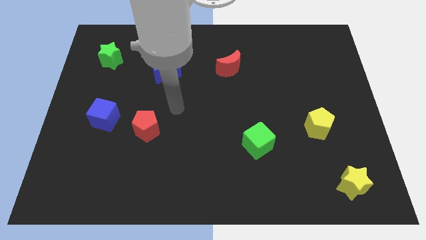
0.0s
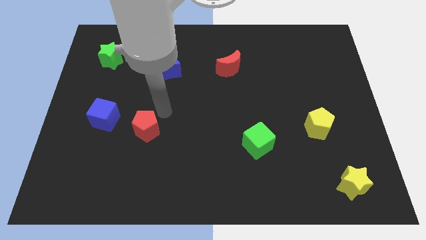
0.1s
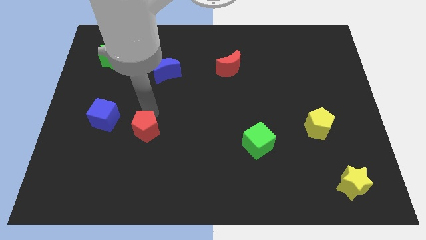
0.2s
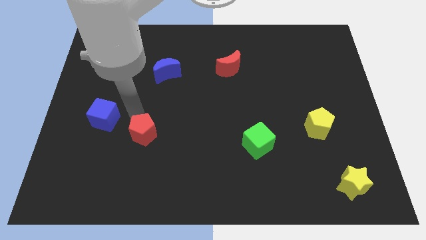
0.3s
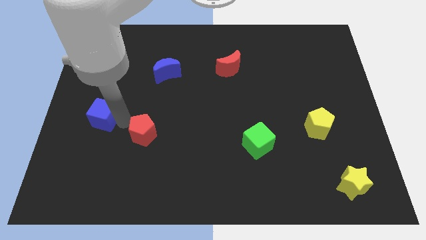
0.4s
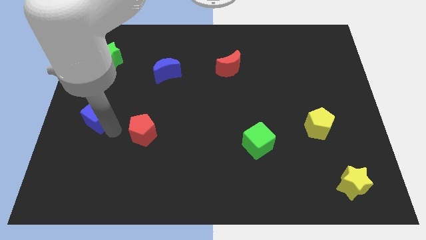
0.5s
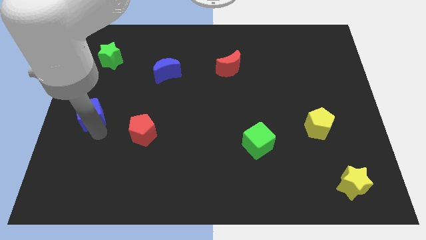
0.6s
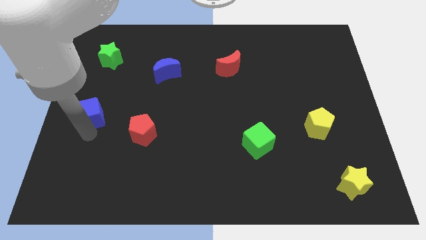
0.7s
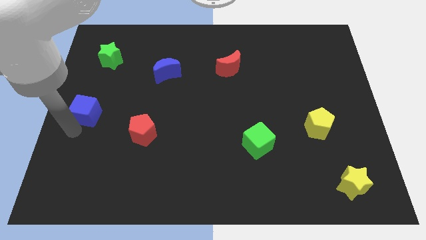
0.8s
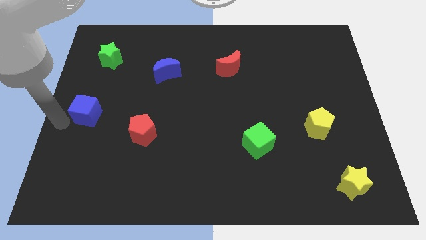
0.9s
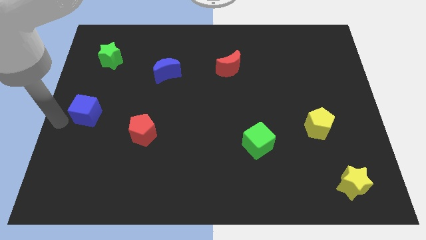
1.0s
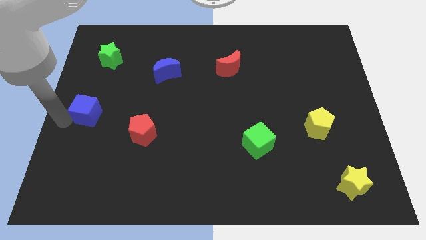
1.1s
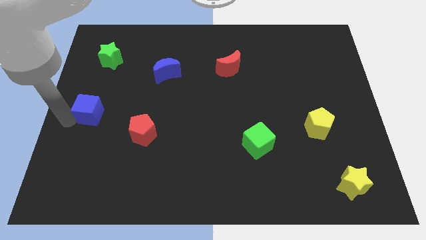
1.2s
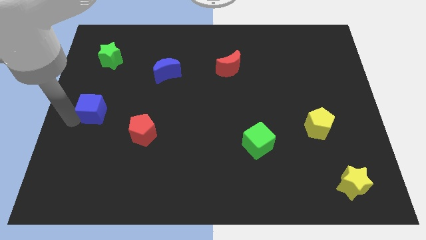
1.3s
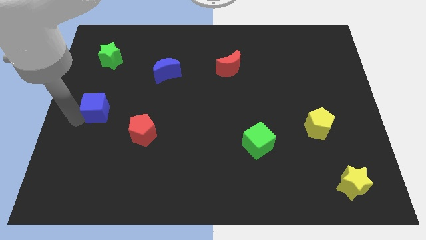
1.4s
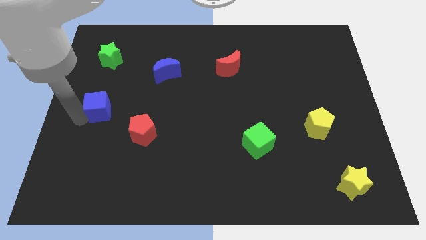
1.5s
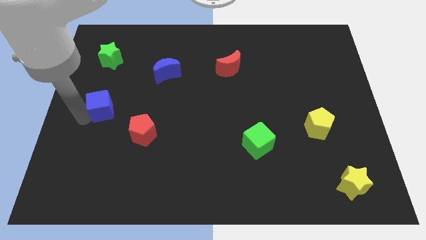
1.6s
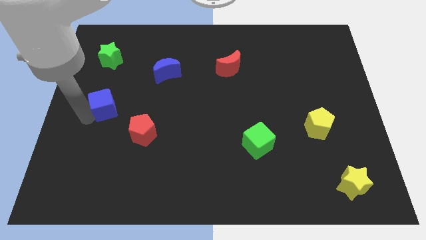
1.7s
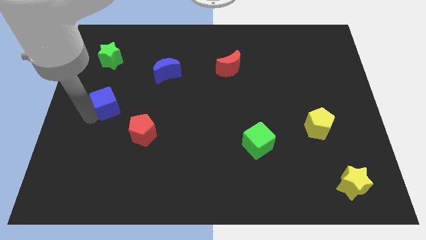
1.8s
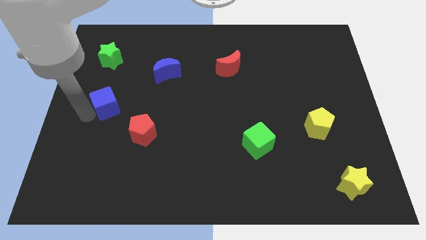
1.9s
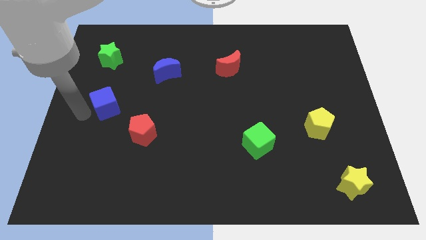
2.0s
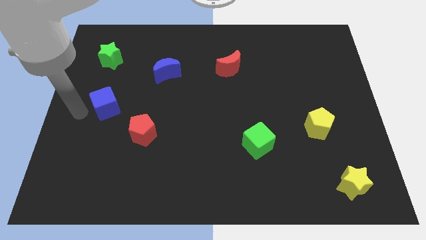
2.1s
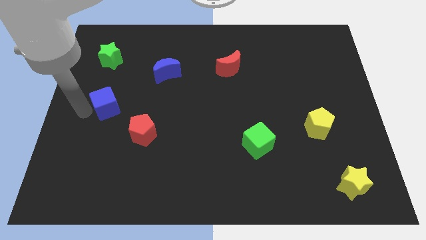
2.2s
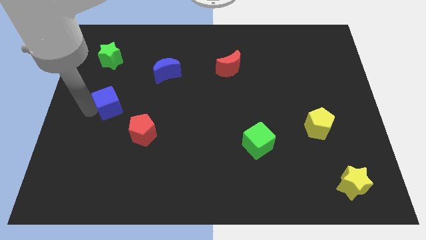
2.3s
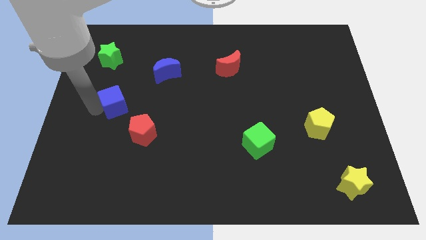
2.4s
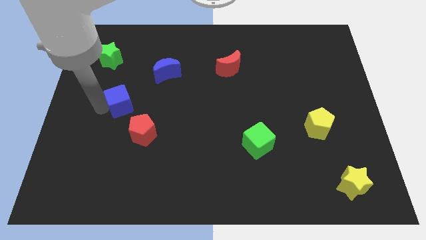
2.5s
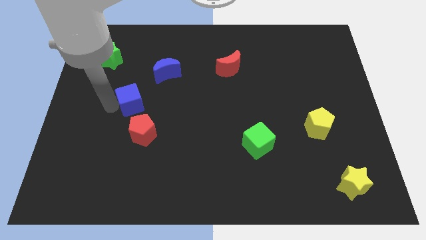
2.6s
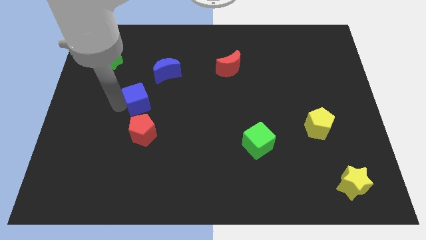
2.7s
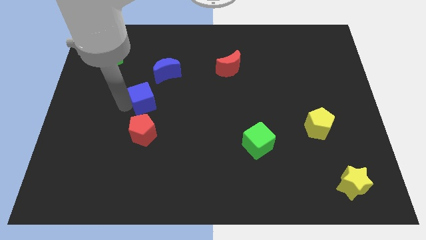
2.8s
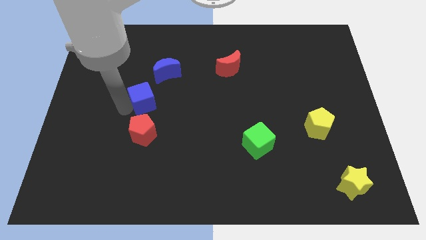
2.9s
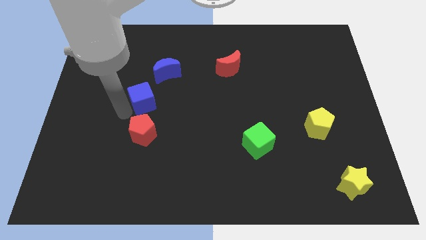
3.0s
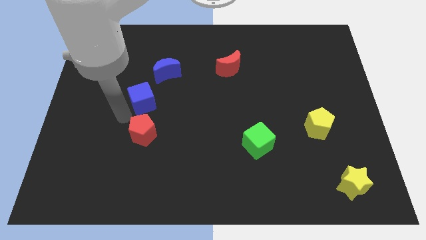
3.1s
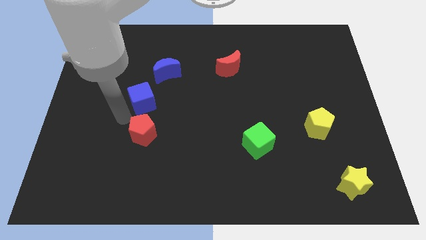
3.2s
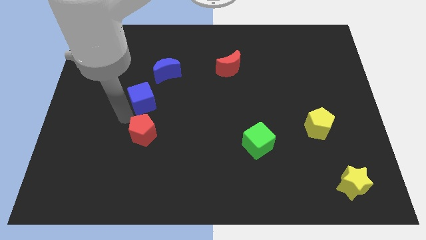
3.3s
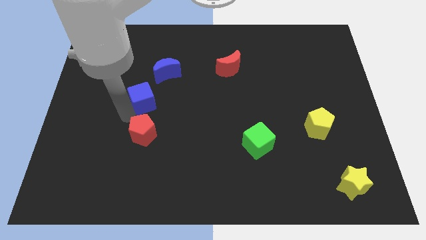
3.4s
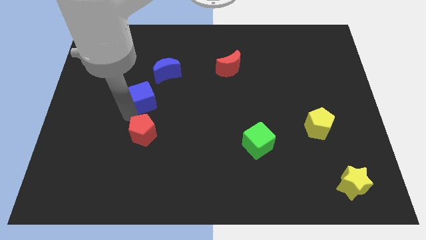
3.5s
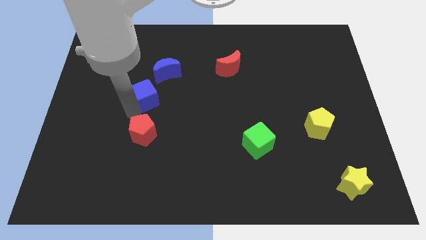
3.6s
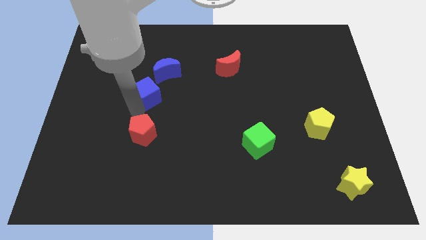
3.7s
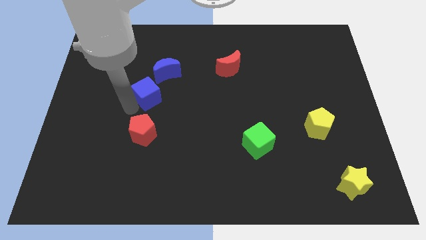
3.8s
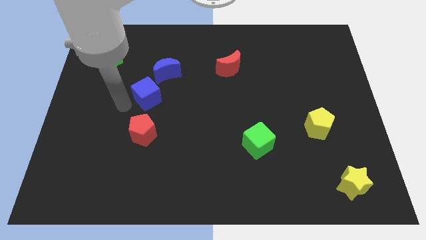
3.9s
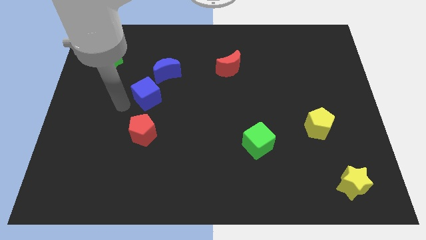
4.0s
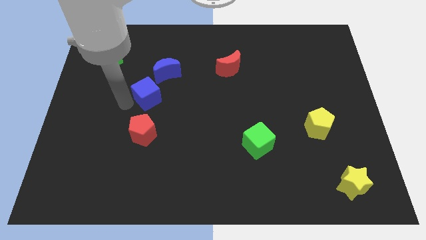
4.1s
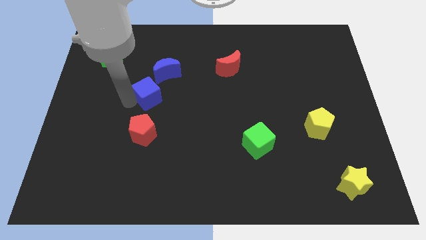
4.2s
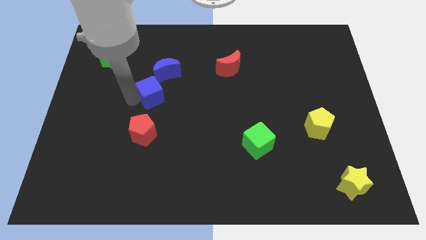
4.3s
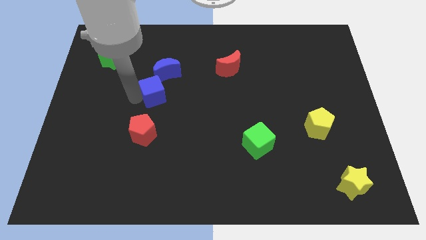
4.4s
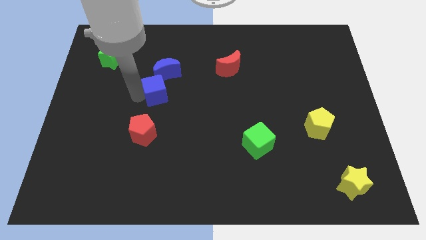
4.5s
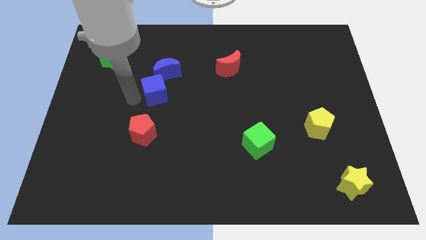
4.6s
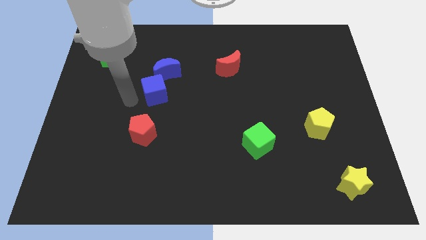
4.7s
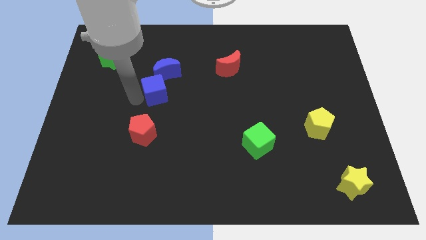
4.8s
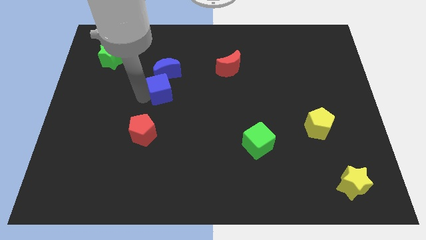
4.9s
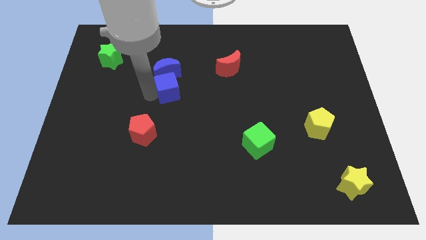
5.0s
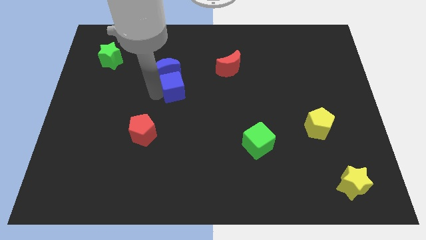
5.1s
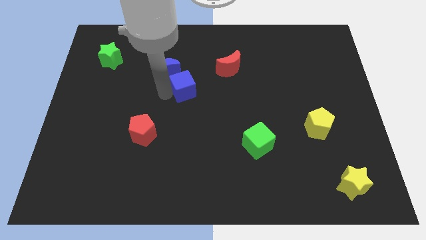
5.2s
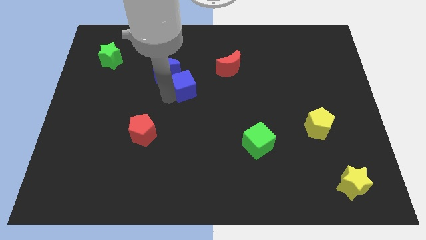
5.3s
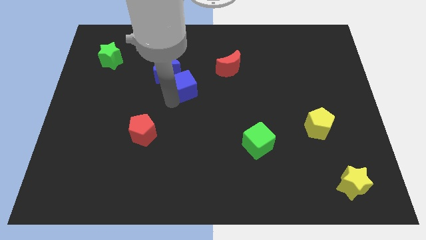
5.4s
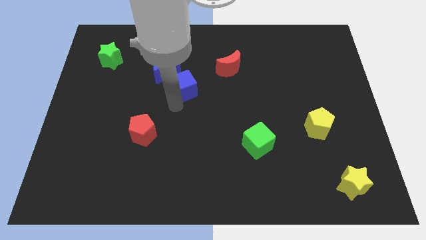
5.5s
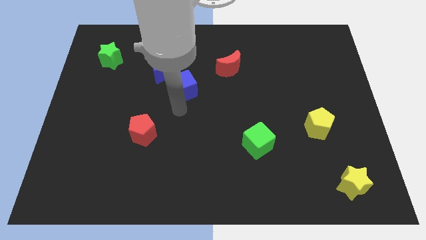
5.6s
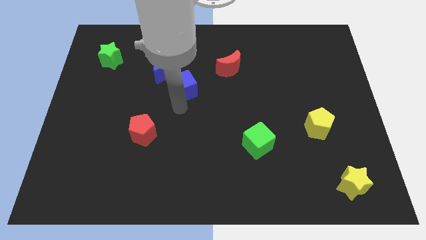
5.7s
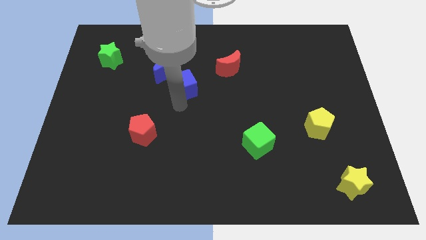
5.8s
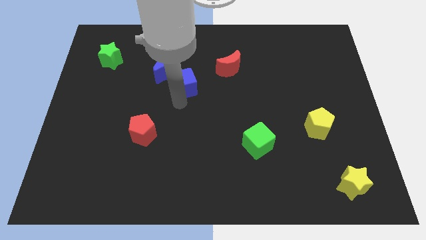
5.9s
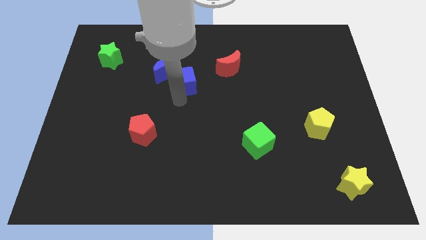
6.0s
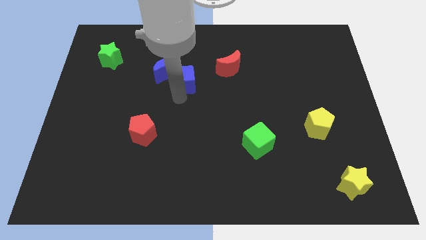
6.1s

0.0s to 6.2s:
put the blue cube to the left side of the red moon

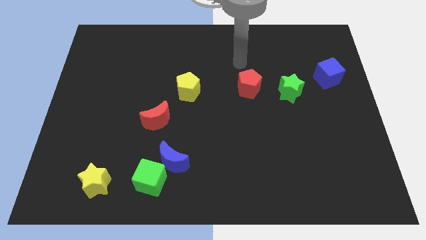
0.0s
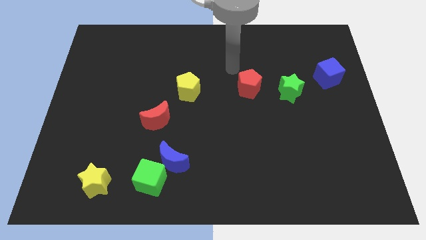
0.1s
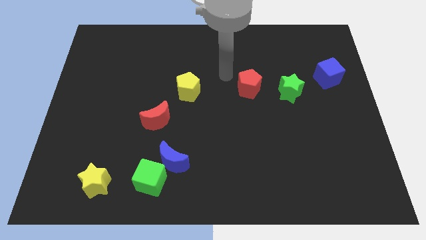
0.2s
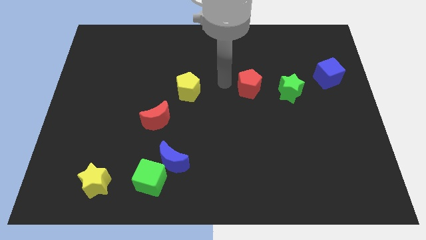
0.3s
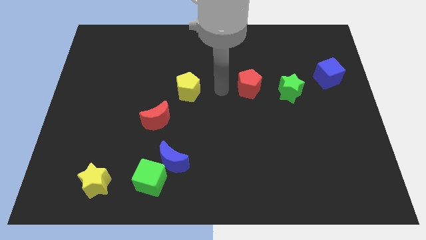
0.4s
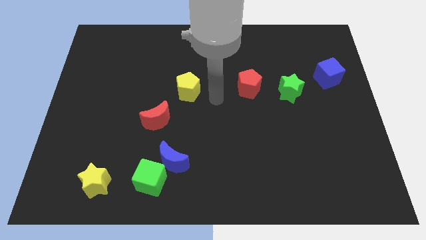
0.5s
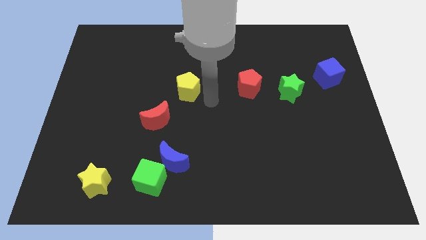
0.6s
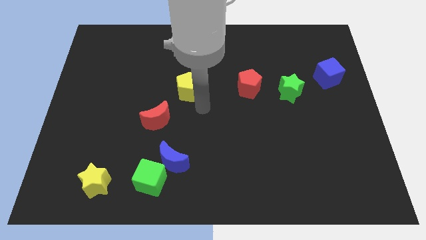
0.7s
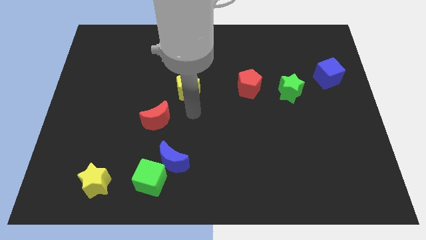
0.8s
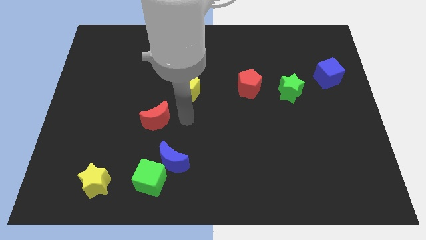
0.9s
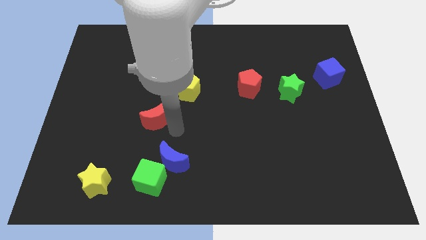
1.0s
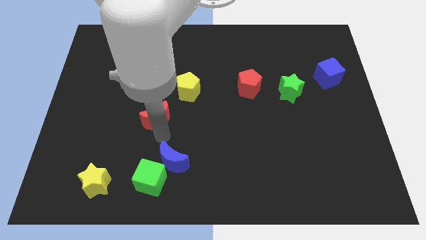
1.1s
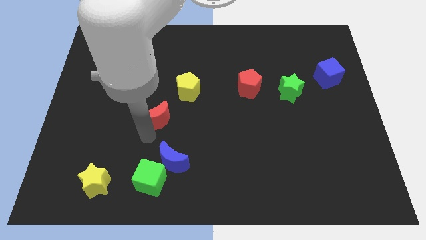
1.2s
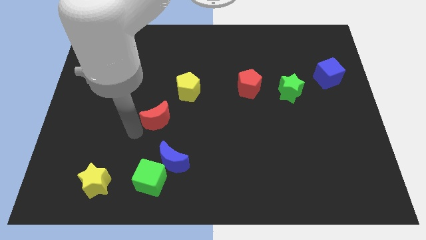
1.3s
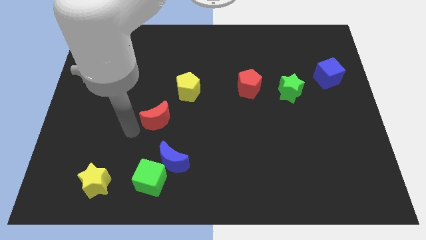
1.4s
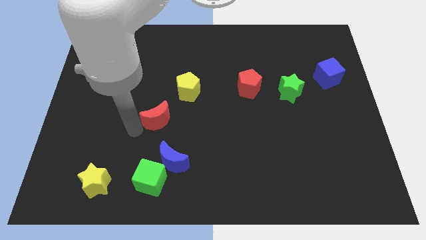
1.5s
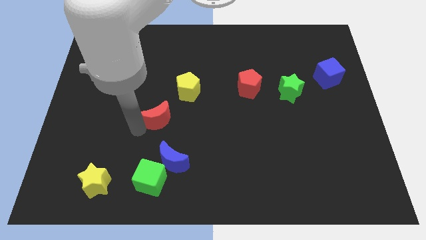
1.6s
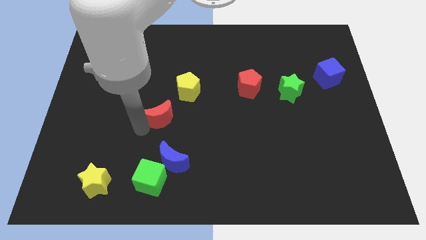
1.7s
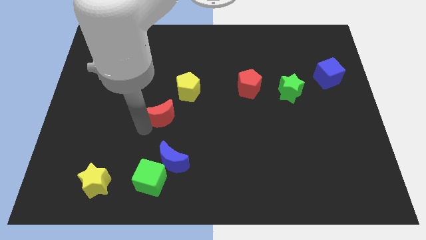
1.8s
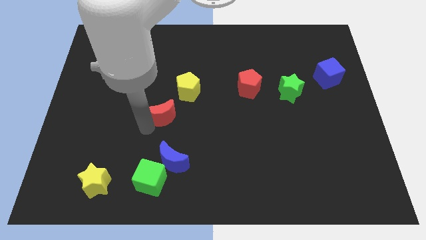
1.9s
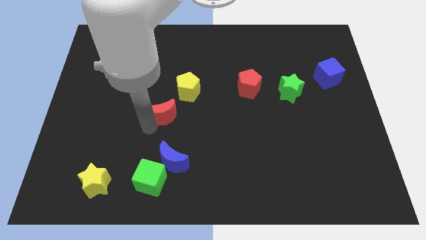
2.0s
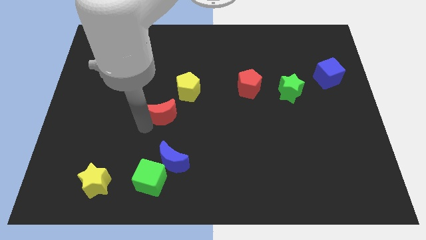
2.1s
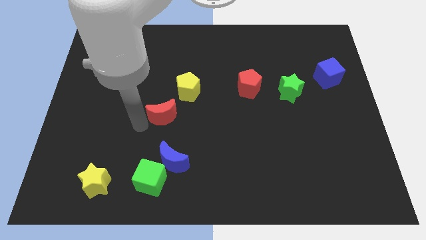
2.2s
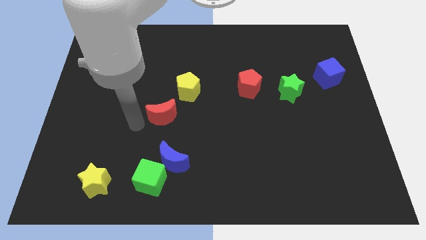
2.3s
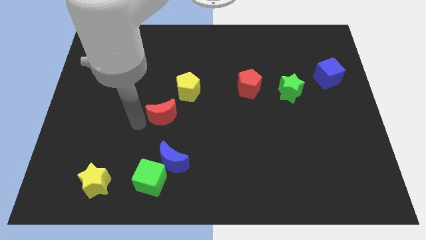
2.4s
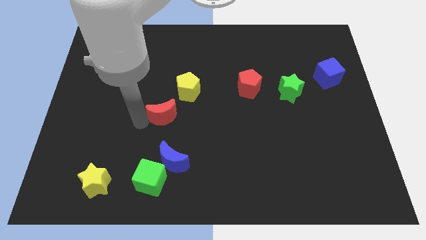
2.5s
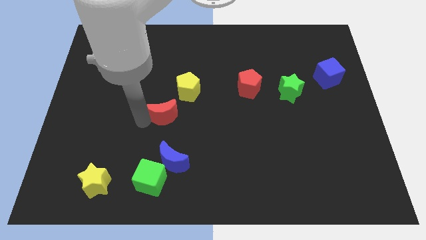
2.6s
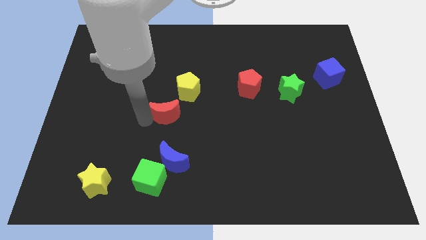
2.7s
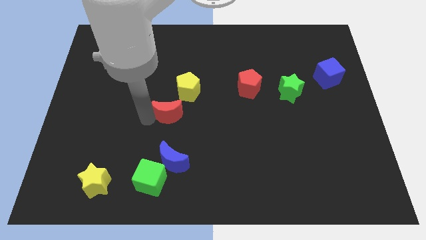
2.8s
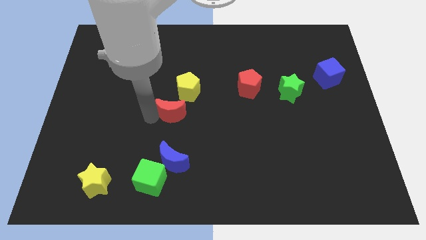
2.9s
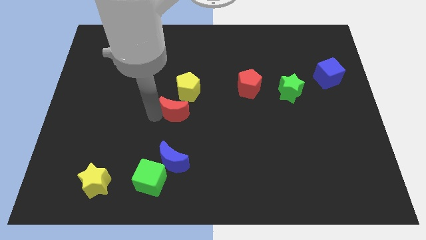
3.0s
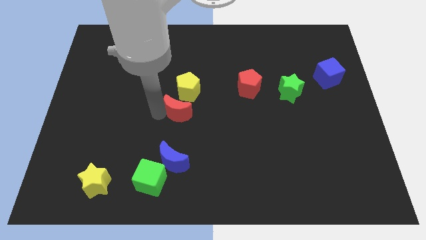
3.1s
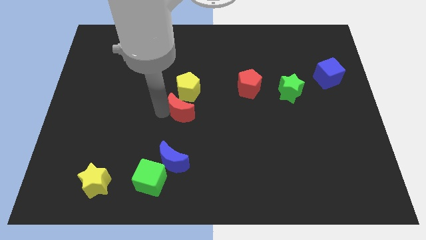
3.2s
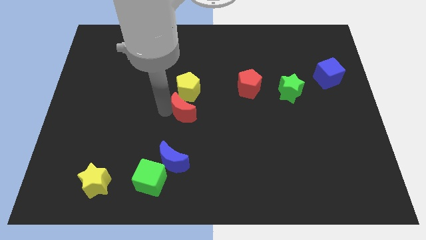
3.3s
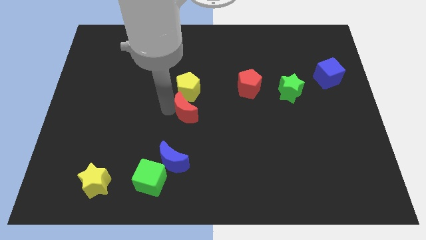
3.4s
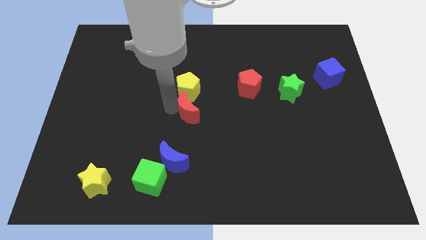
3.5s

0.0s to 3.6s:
push the red moon to the bottom right side of the yellow pentagon
